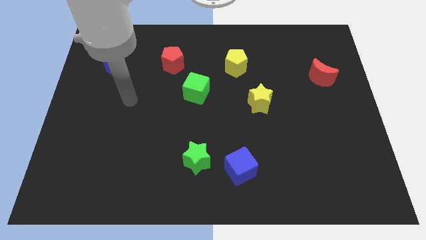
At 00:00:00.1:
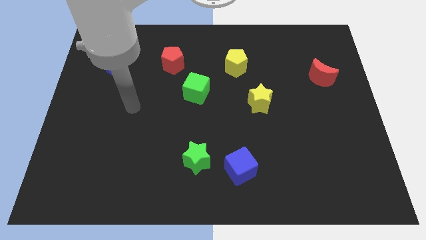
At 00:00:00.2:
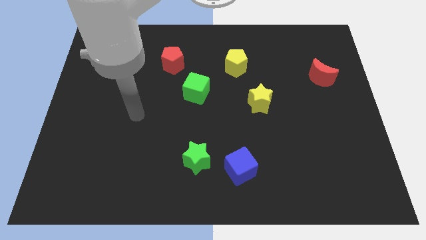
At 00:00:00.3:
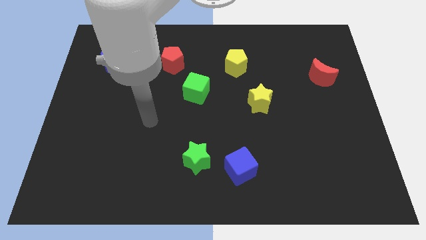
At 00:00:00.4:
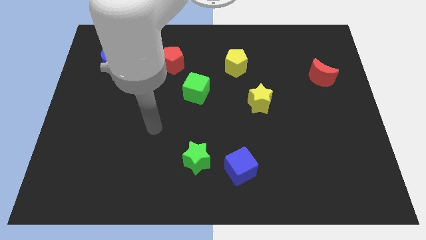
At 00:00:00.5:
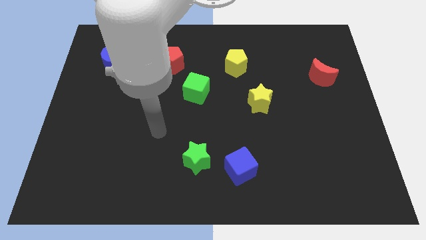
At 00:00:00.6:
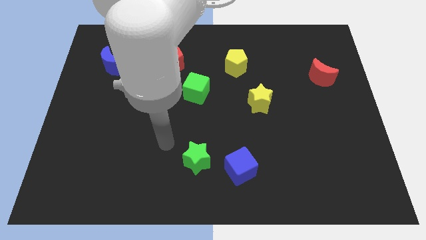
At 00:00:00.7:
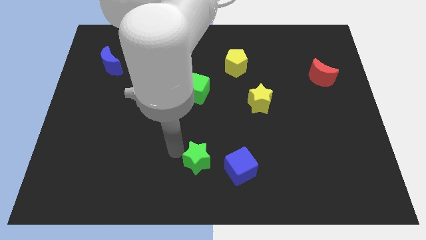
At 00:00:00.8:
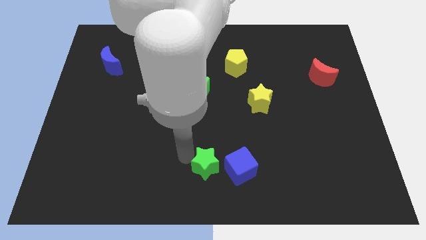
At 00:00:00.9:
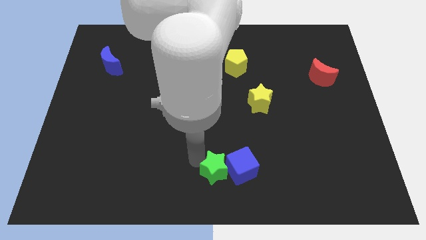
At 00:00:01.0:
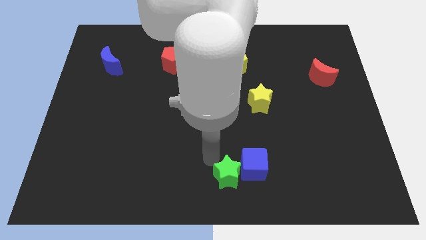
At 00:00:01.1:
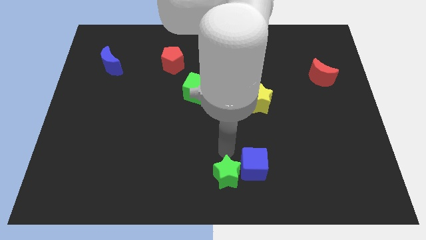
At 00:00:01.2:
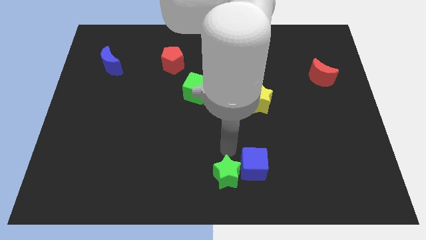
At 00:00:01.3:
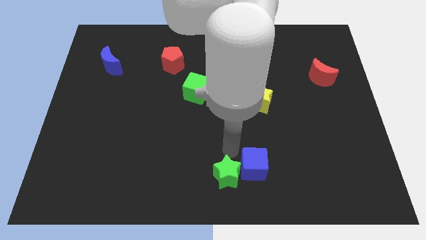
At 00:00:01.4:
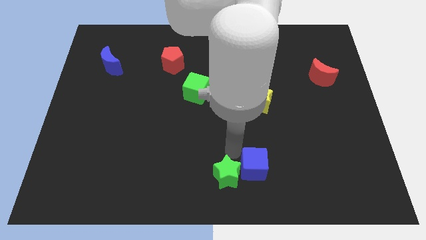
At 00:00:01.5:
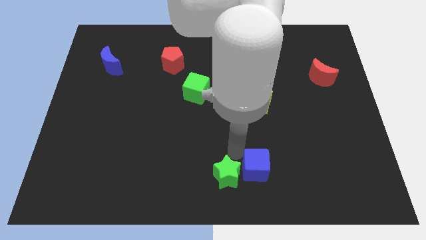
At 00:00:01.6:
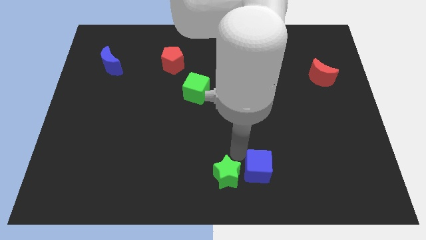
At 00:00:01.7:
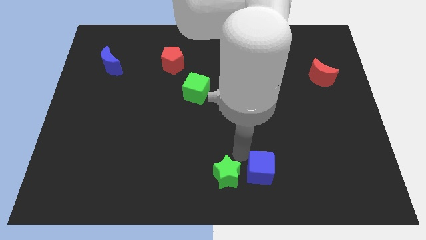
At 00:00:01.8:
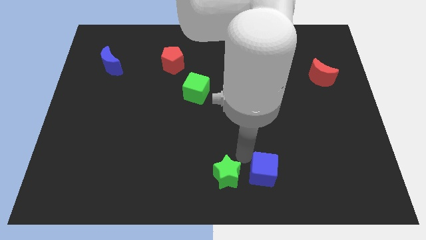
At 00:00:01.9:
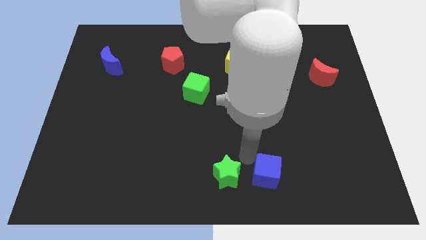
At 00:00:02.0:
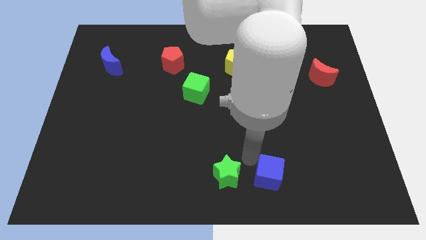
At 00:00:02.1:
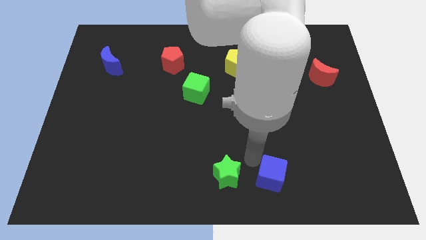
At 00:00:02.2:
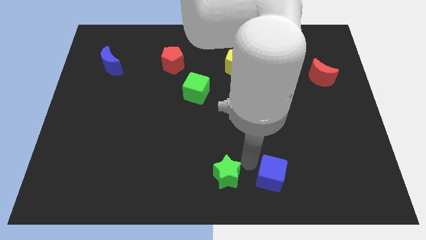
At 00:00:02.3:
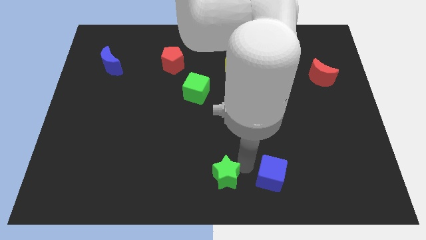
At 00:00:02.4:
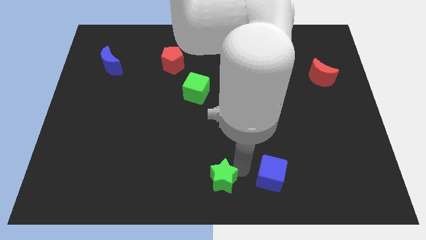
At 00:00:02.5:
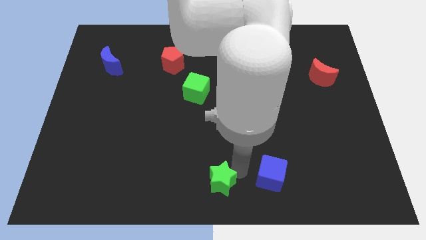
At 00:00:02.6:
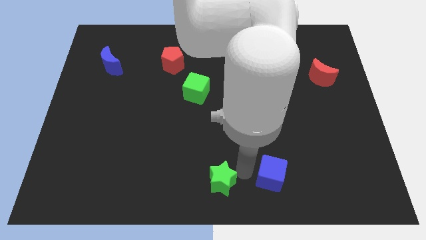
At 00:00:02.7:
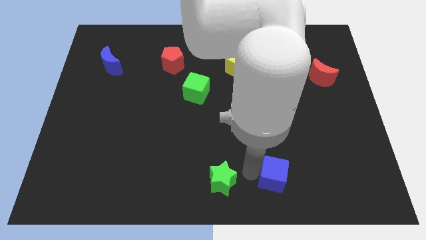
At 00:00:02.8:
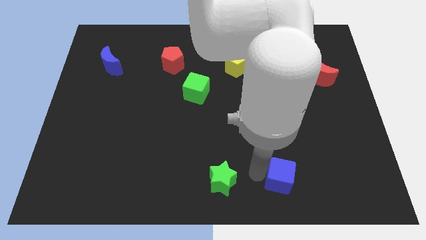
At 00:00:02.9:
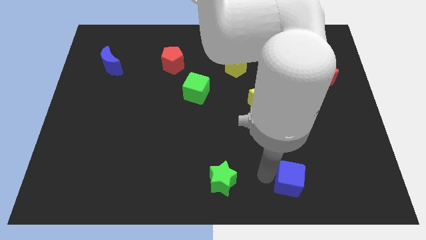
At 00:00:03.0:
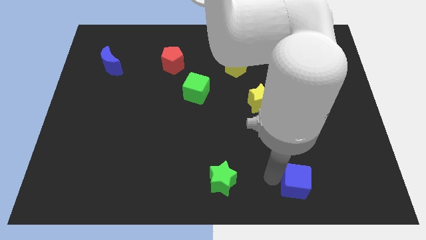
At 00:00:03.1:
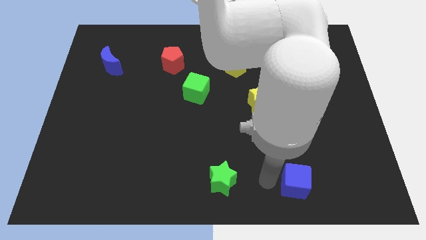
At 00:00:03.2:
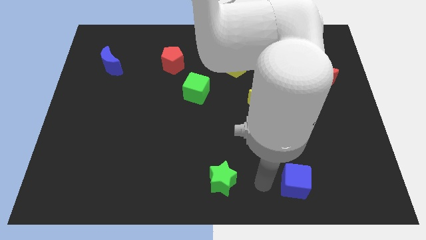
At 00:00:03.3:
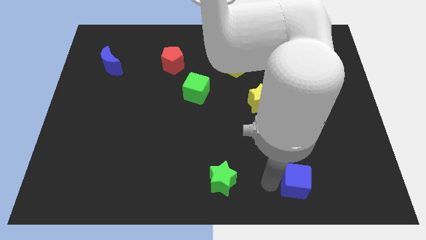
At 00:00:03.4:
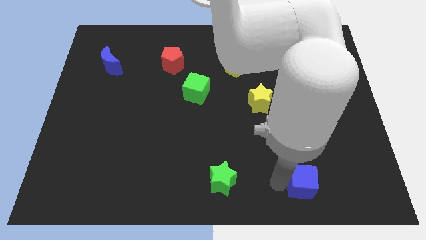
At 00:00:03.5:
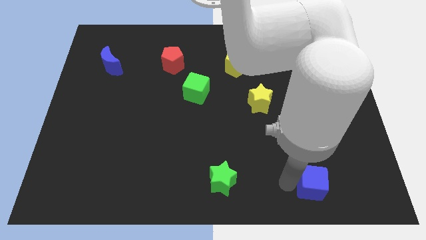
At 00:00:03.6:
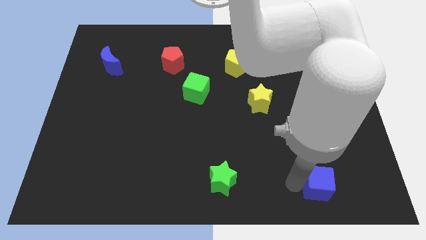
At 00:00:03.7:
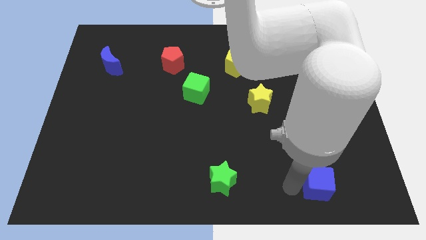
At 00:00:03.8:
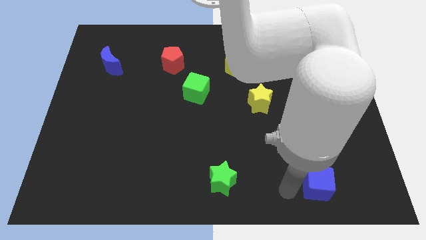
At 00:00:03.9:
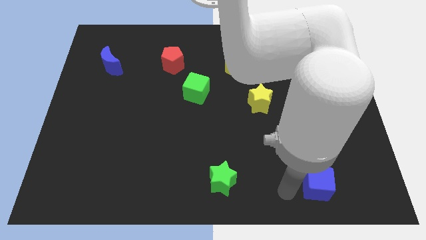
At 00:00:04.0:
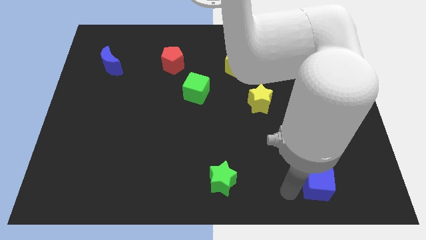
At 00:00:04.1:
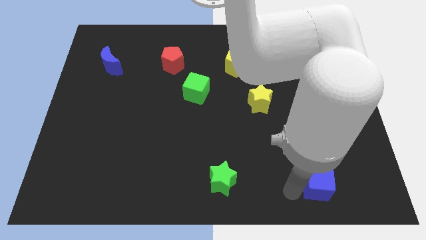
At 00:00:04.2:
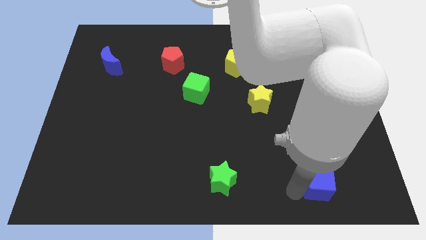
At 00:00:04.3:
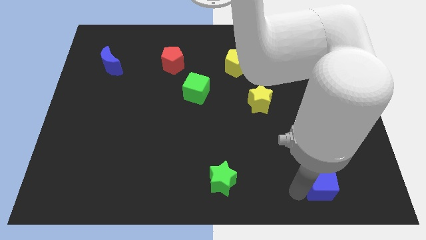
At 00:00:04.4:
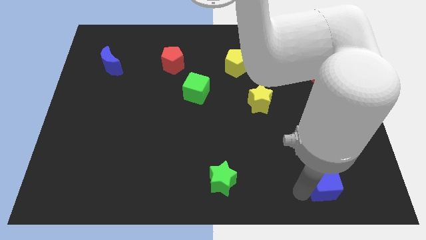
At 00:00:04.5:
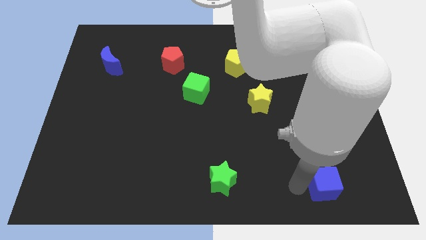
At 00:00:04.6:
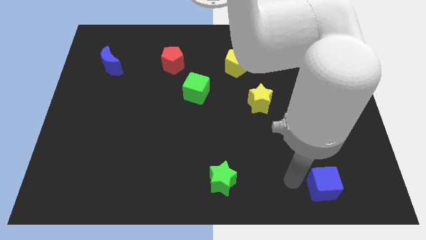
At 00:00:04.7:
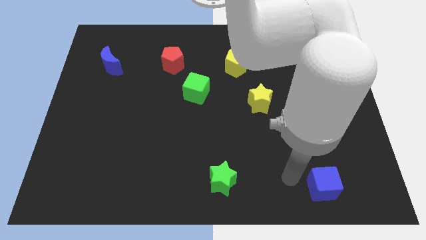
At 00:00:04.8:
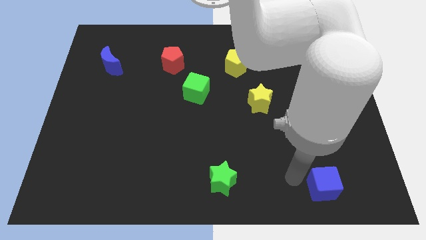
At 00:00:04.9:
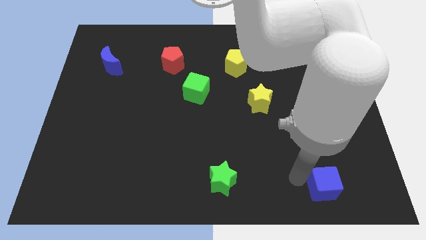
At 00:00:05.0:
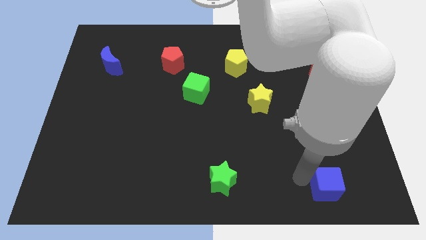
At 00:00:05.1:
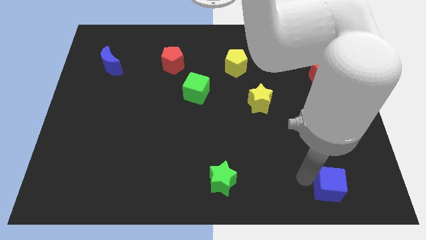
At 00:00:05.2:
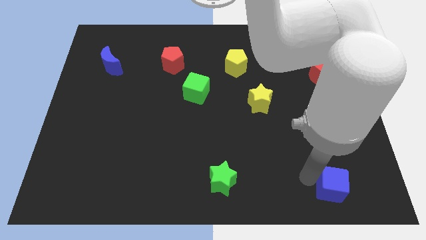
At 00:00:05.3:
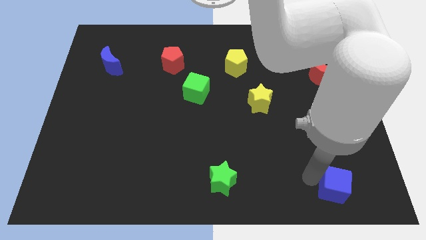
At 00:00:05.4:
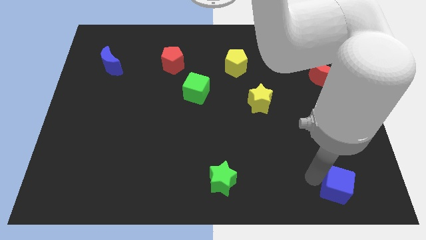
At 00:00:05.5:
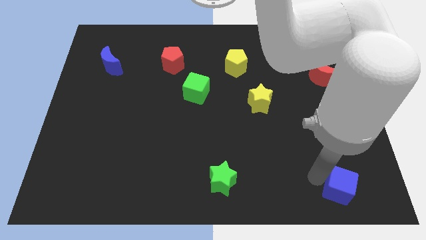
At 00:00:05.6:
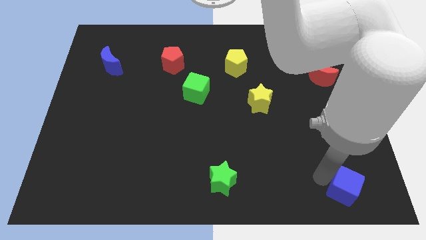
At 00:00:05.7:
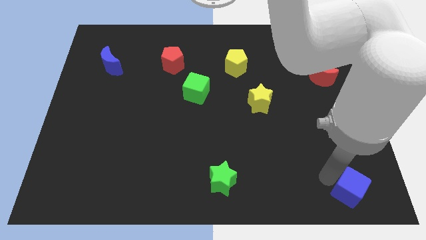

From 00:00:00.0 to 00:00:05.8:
move the blue cube to the lower right corner

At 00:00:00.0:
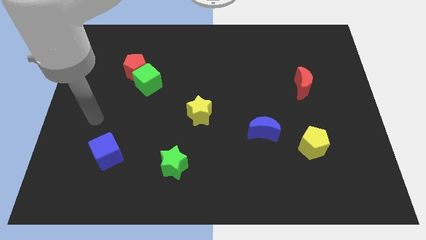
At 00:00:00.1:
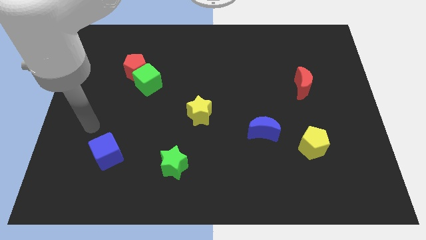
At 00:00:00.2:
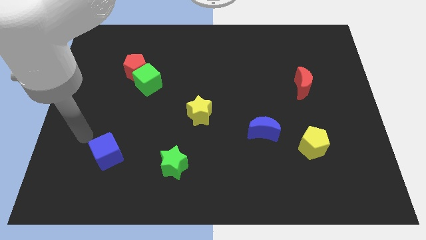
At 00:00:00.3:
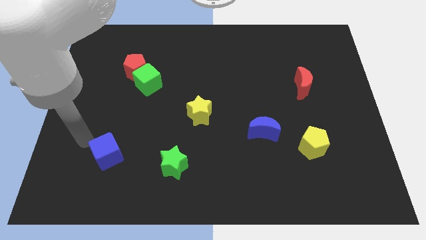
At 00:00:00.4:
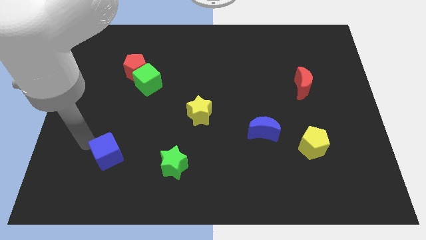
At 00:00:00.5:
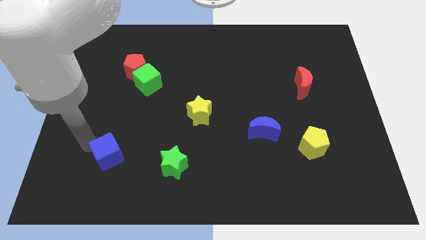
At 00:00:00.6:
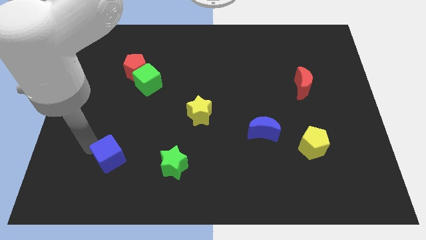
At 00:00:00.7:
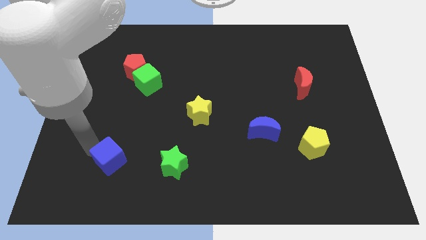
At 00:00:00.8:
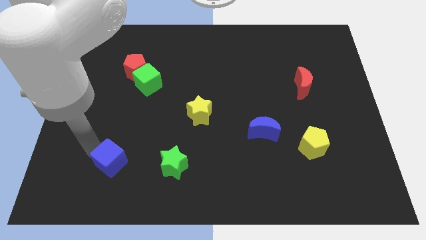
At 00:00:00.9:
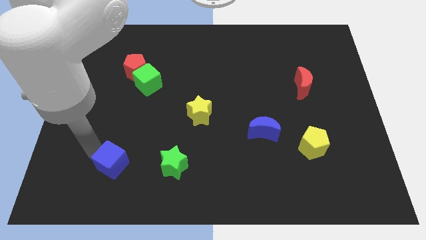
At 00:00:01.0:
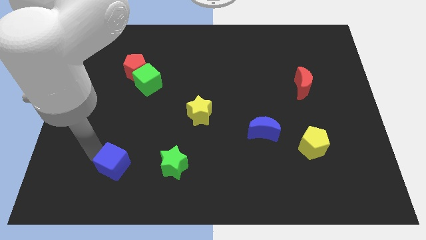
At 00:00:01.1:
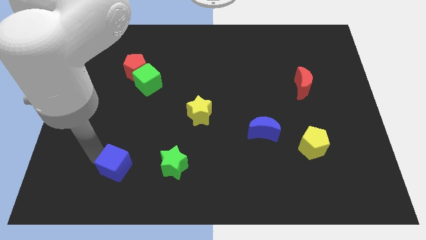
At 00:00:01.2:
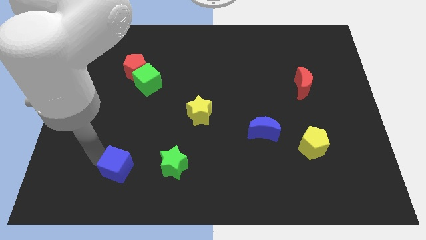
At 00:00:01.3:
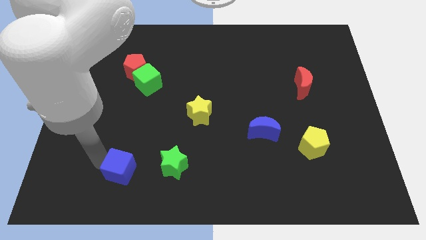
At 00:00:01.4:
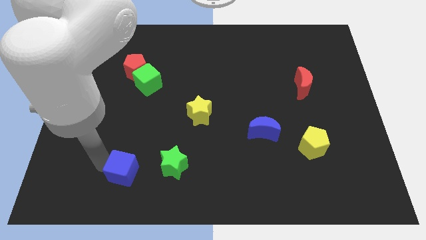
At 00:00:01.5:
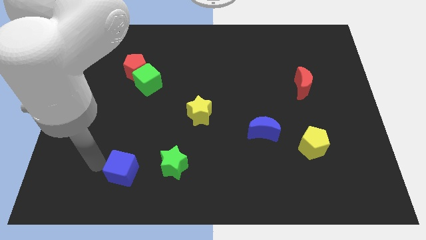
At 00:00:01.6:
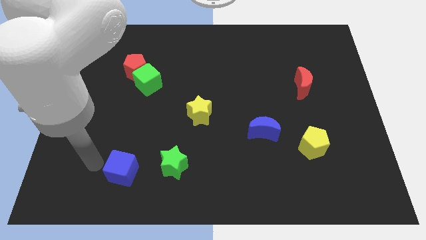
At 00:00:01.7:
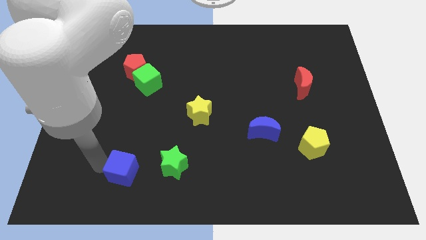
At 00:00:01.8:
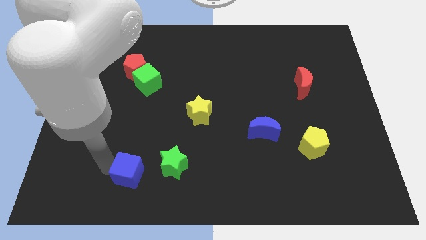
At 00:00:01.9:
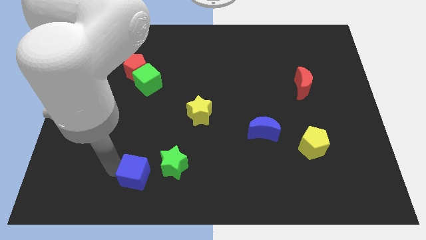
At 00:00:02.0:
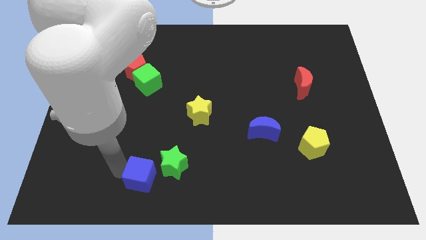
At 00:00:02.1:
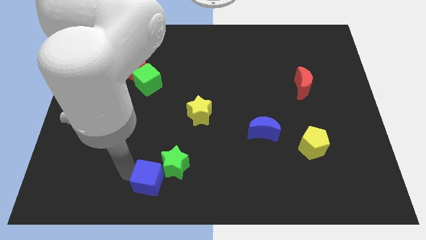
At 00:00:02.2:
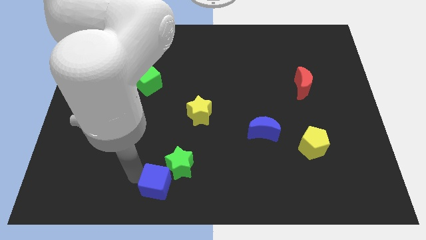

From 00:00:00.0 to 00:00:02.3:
put the blue cube to the bottom side
